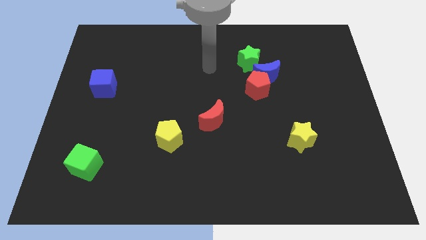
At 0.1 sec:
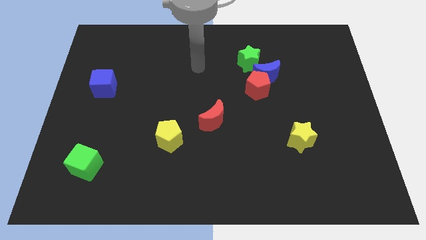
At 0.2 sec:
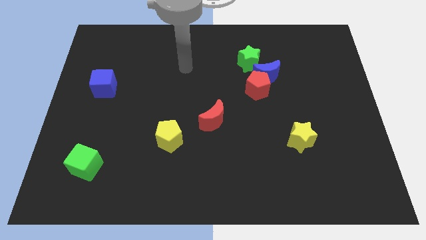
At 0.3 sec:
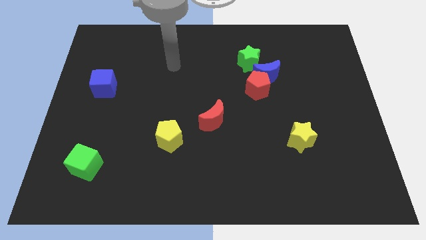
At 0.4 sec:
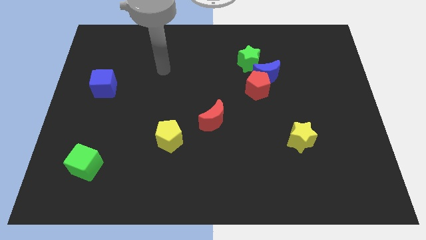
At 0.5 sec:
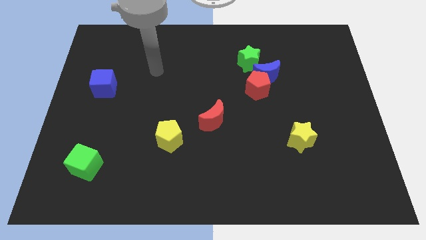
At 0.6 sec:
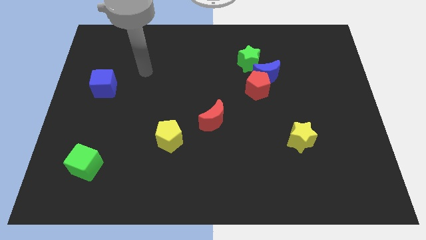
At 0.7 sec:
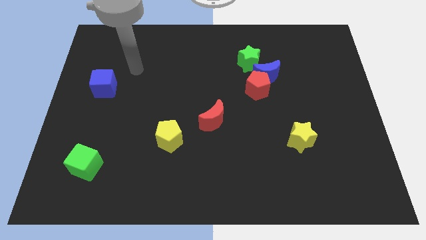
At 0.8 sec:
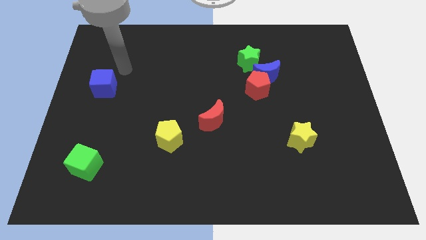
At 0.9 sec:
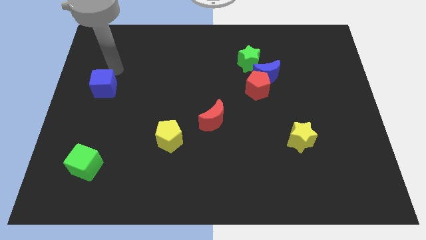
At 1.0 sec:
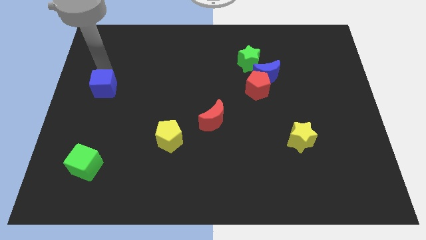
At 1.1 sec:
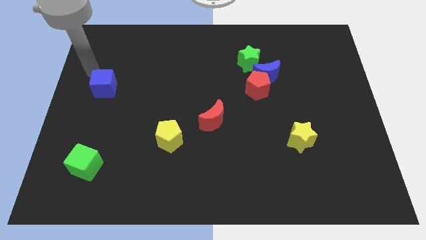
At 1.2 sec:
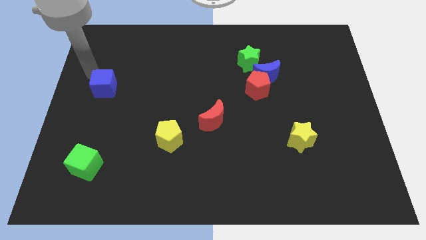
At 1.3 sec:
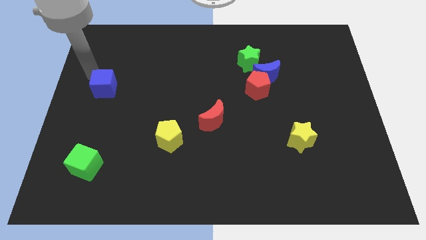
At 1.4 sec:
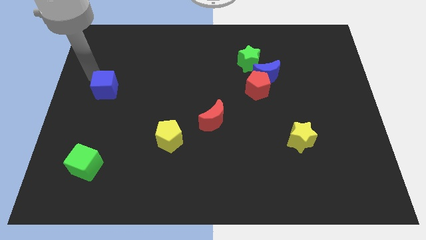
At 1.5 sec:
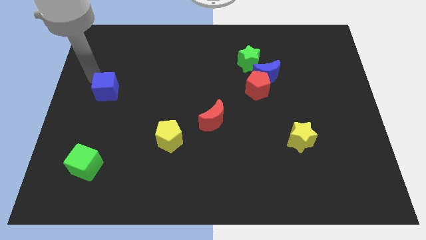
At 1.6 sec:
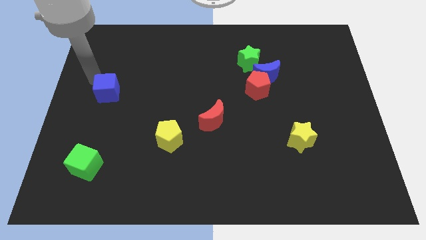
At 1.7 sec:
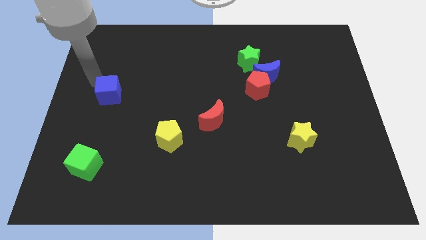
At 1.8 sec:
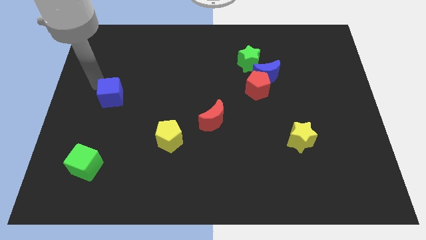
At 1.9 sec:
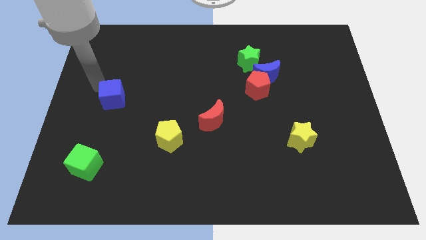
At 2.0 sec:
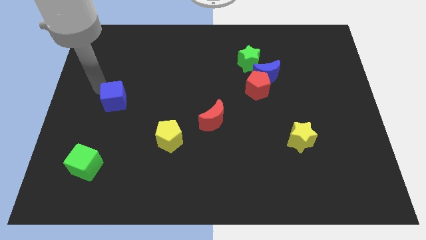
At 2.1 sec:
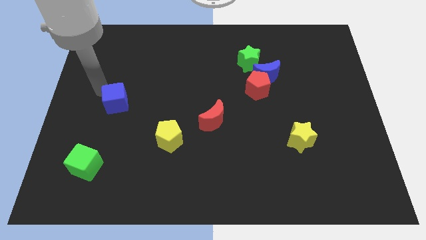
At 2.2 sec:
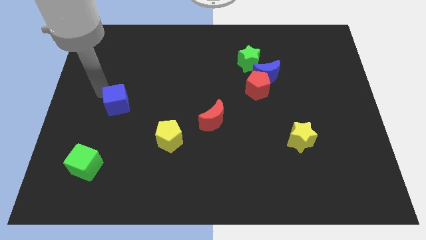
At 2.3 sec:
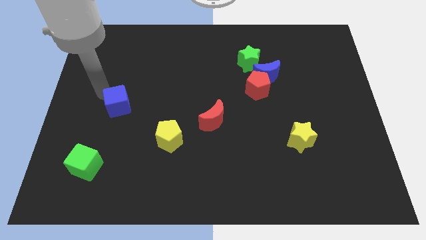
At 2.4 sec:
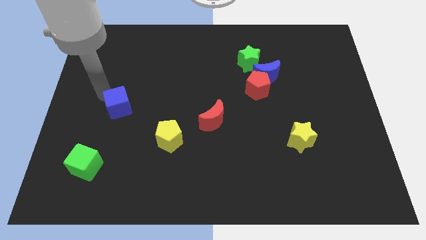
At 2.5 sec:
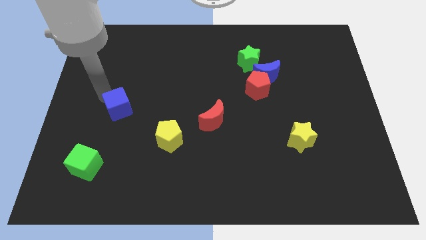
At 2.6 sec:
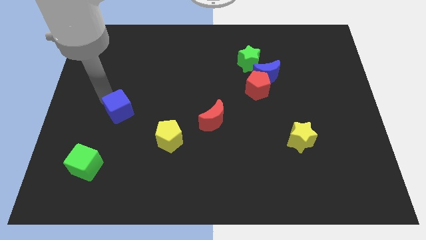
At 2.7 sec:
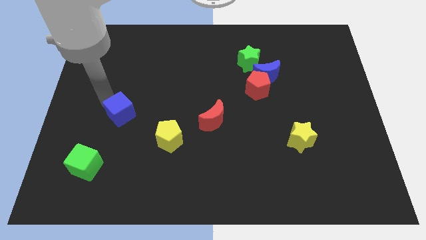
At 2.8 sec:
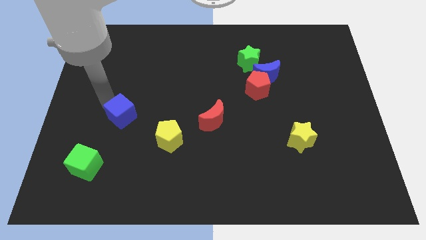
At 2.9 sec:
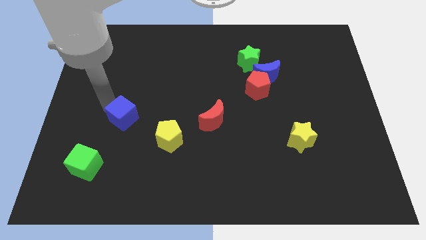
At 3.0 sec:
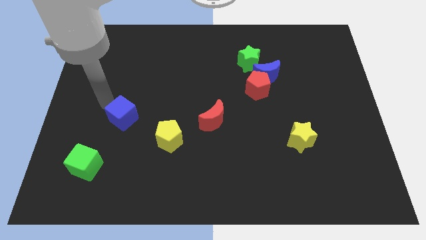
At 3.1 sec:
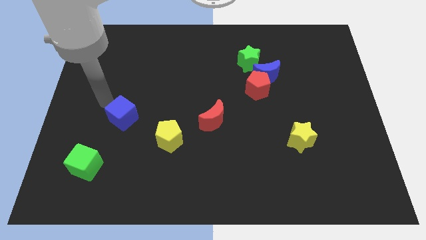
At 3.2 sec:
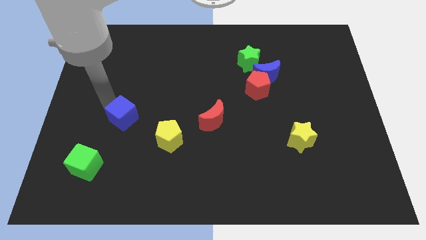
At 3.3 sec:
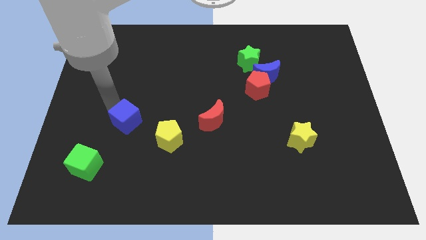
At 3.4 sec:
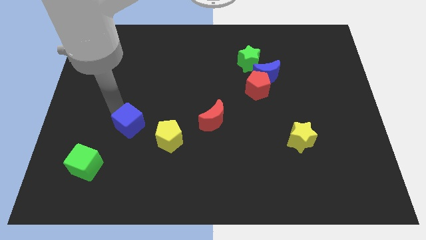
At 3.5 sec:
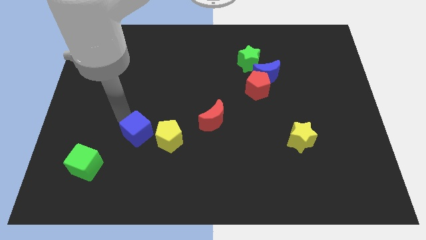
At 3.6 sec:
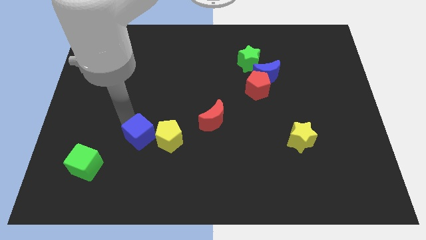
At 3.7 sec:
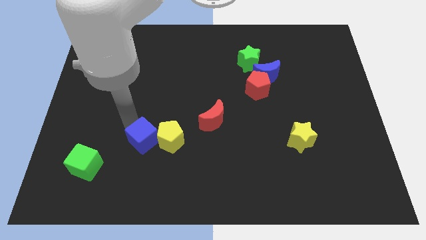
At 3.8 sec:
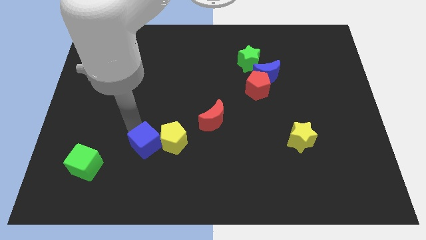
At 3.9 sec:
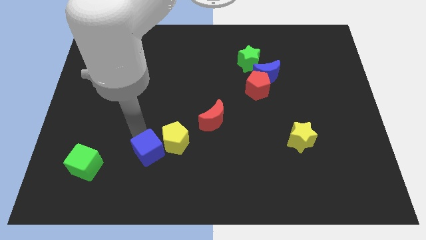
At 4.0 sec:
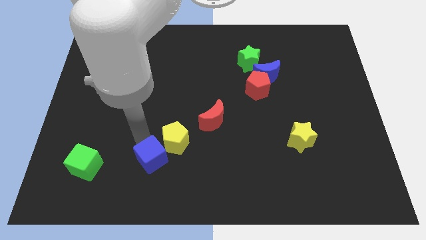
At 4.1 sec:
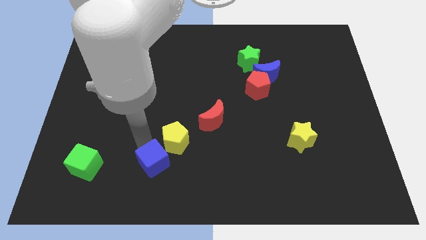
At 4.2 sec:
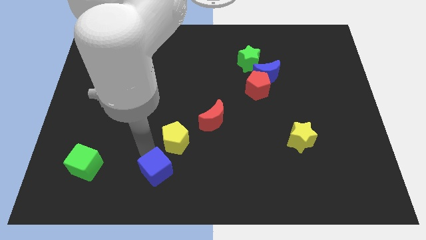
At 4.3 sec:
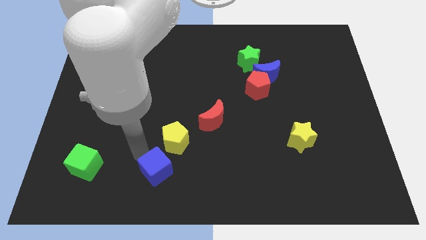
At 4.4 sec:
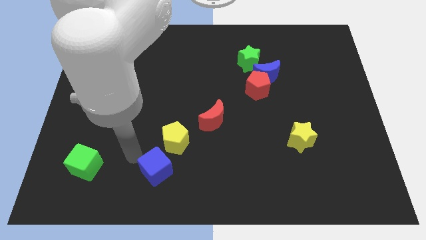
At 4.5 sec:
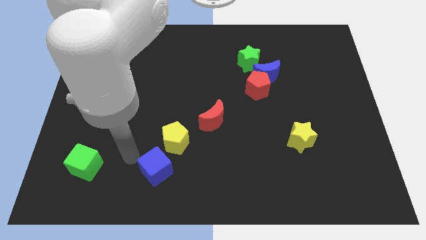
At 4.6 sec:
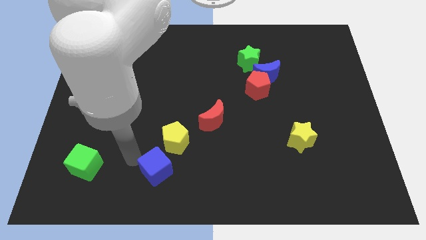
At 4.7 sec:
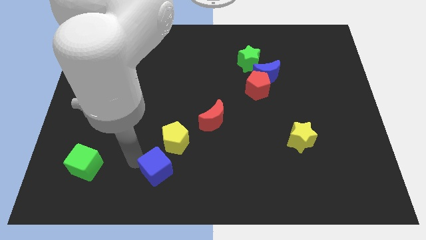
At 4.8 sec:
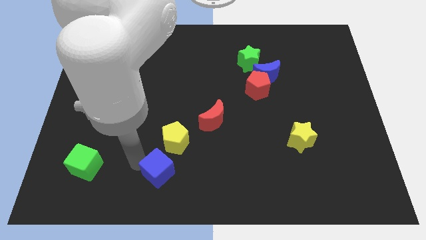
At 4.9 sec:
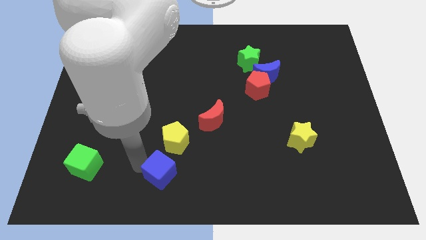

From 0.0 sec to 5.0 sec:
push the blue cube to the bottom side

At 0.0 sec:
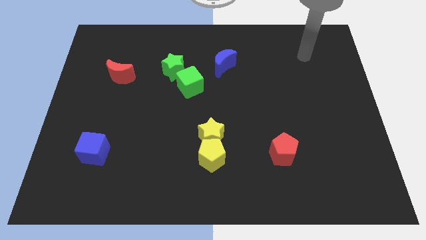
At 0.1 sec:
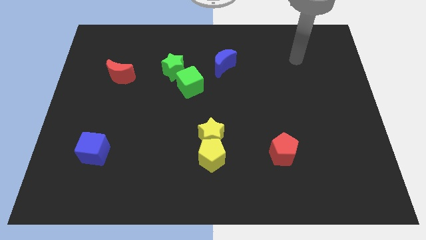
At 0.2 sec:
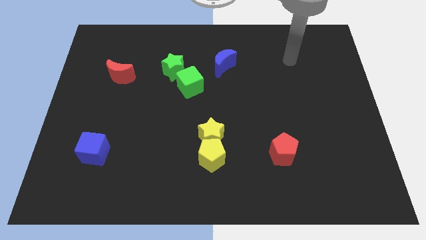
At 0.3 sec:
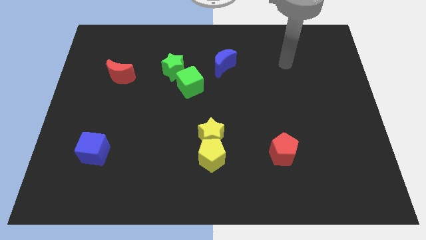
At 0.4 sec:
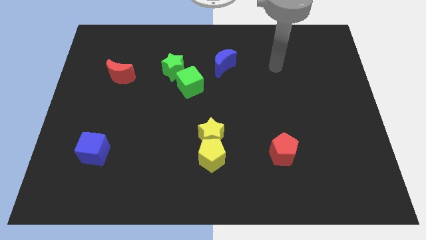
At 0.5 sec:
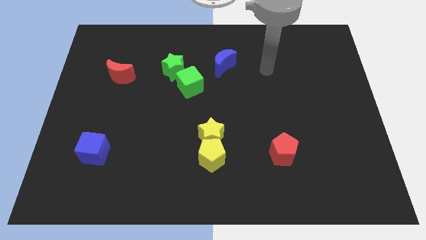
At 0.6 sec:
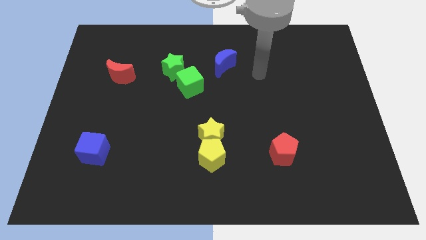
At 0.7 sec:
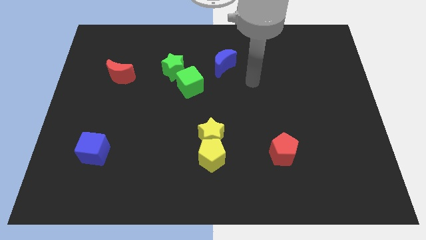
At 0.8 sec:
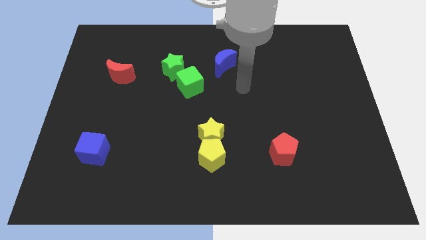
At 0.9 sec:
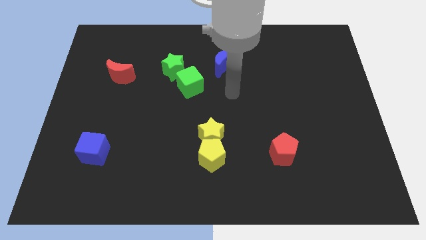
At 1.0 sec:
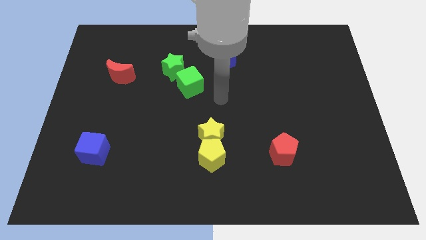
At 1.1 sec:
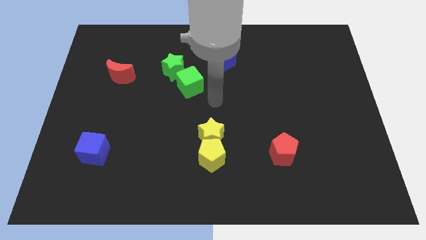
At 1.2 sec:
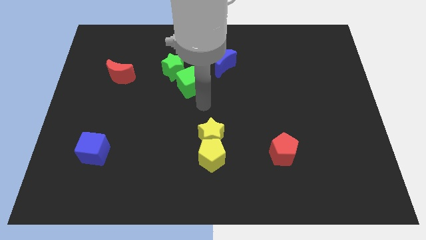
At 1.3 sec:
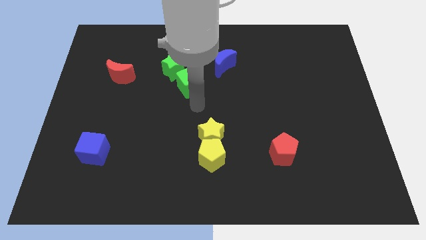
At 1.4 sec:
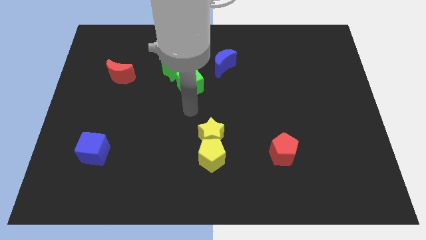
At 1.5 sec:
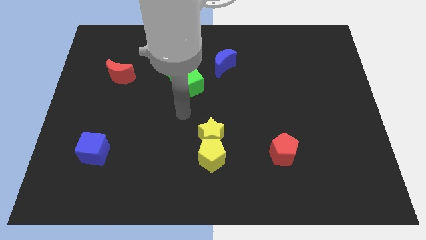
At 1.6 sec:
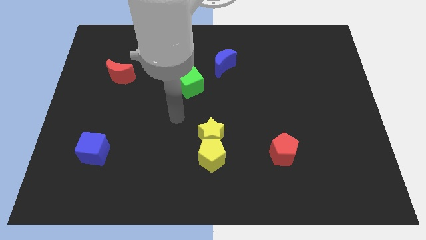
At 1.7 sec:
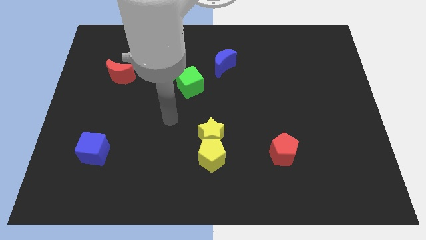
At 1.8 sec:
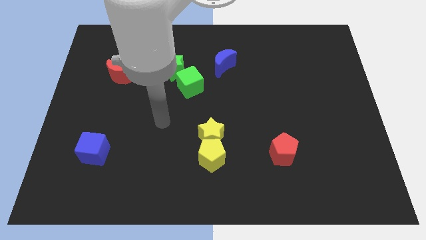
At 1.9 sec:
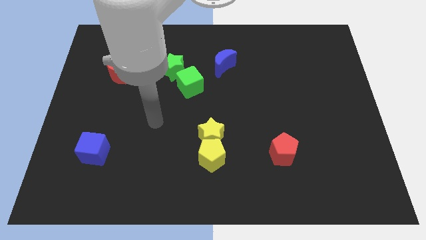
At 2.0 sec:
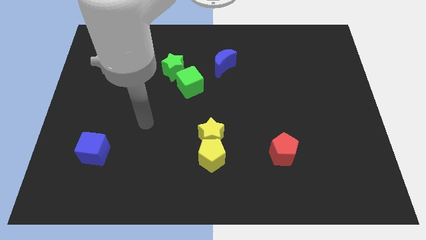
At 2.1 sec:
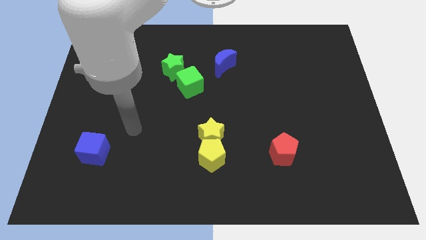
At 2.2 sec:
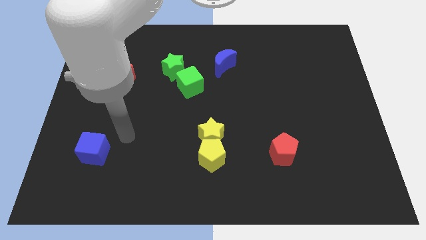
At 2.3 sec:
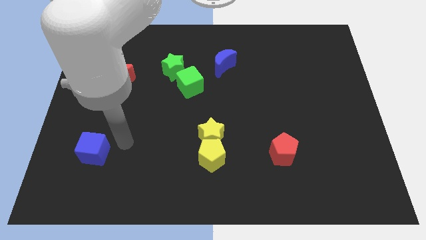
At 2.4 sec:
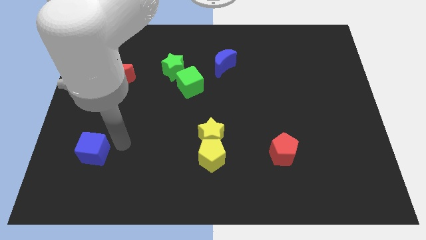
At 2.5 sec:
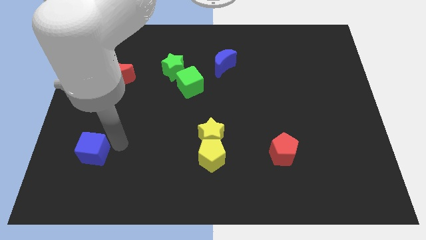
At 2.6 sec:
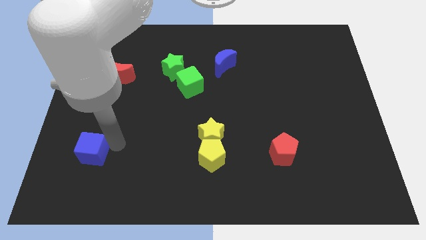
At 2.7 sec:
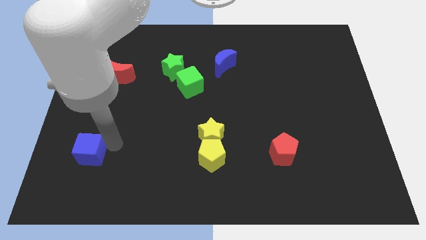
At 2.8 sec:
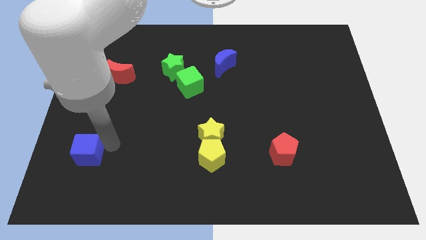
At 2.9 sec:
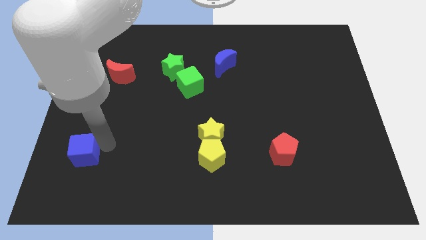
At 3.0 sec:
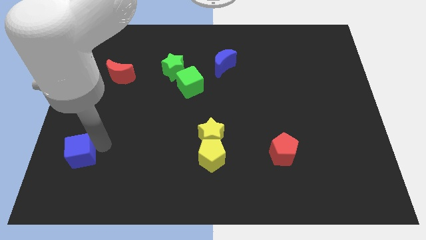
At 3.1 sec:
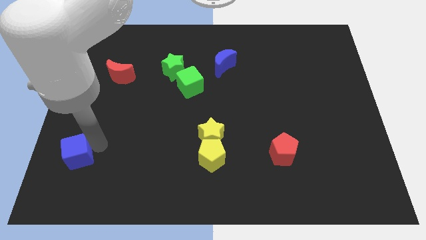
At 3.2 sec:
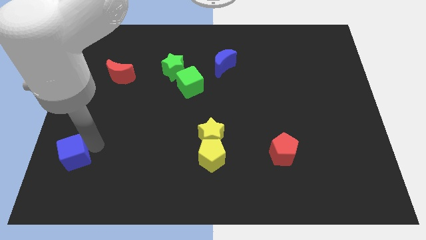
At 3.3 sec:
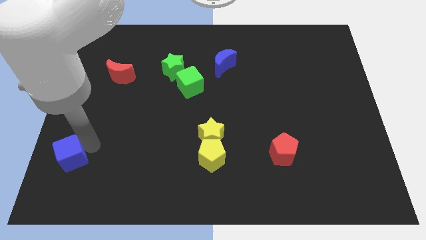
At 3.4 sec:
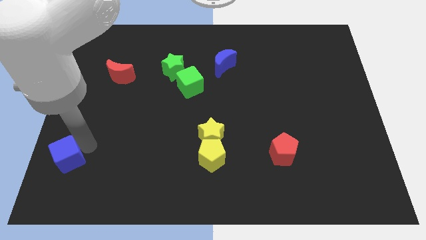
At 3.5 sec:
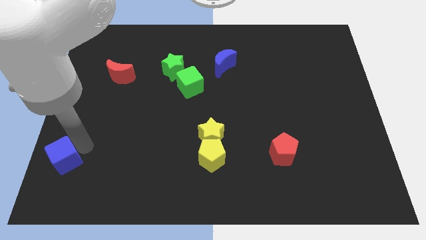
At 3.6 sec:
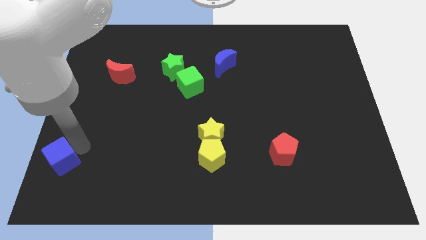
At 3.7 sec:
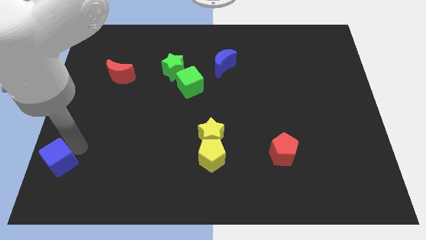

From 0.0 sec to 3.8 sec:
slide the blue cube to the bottom left of the board
